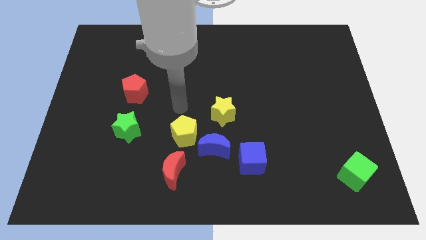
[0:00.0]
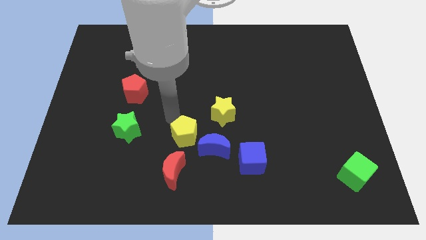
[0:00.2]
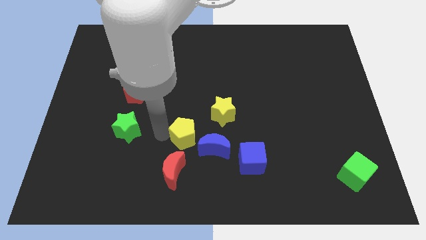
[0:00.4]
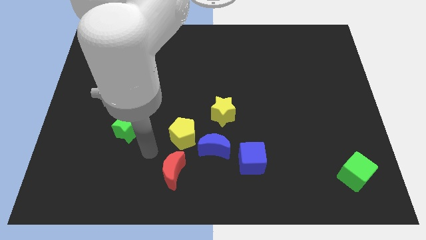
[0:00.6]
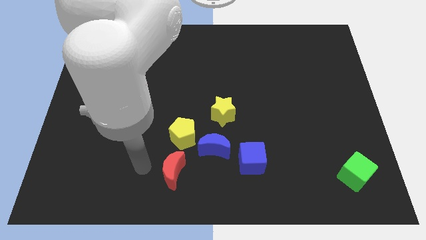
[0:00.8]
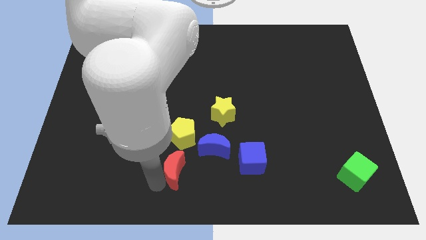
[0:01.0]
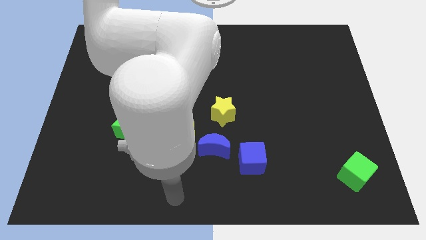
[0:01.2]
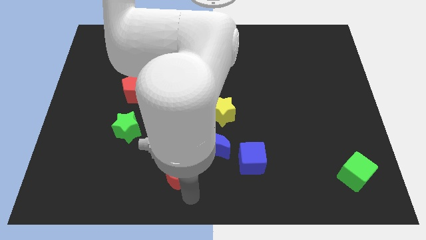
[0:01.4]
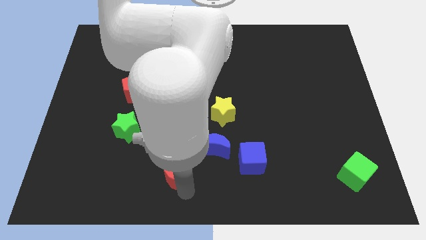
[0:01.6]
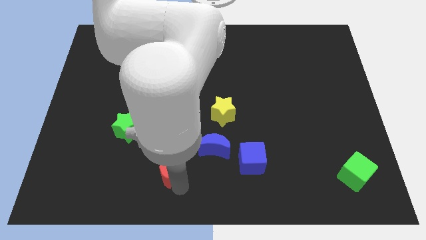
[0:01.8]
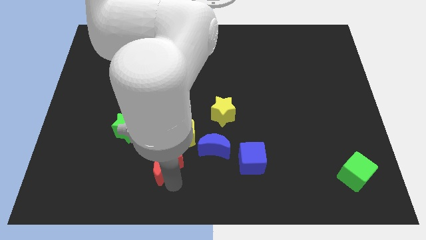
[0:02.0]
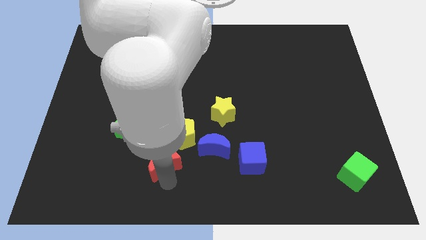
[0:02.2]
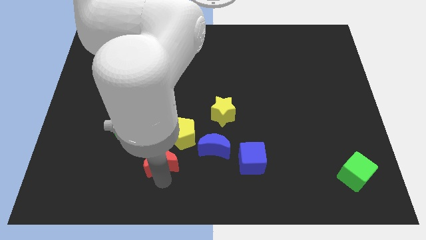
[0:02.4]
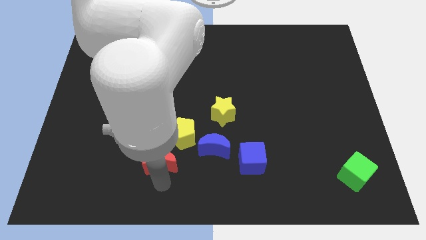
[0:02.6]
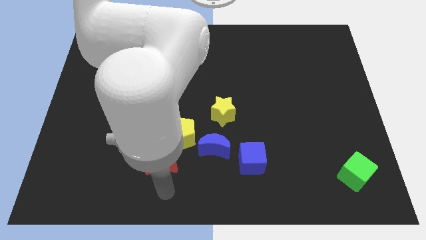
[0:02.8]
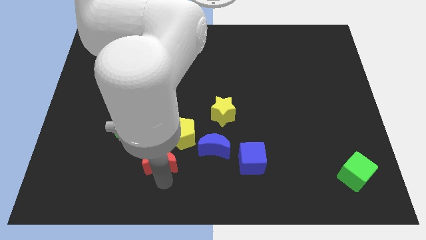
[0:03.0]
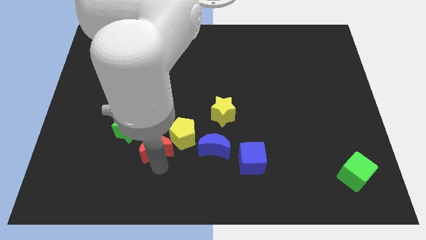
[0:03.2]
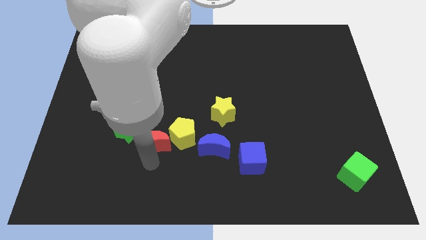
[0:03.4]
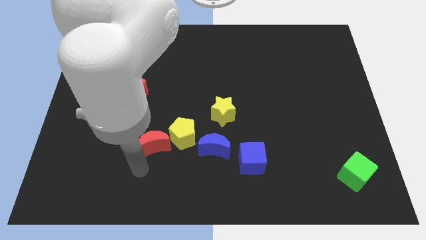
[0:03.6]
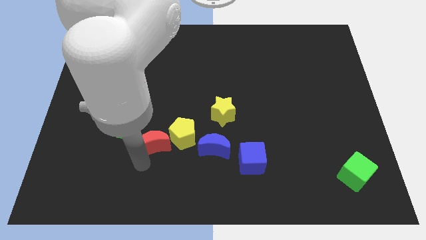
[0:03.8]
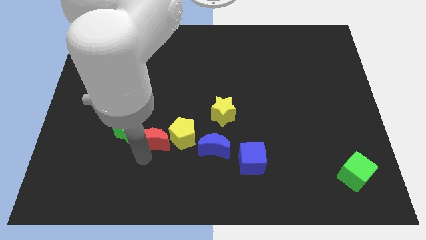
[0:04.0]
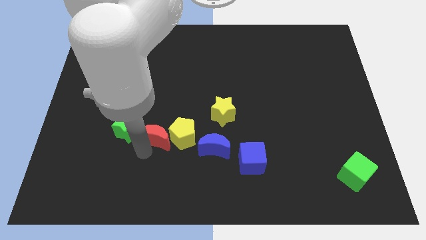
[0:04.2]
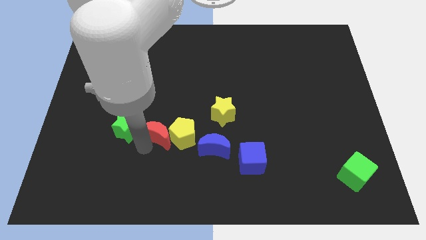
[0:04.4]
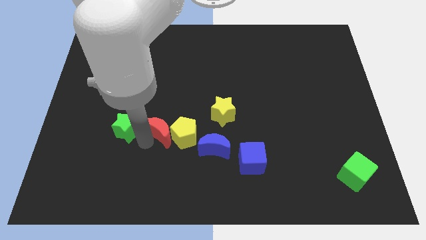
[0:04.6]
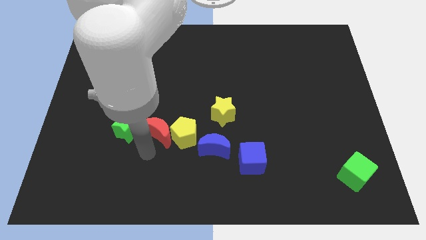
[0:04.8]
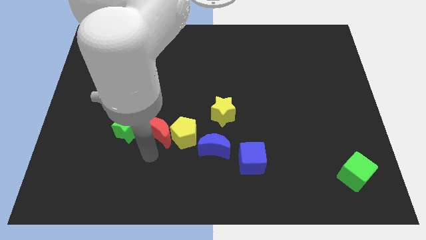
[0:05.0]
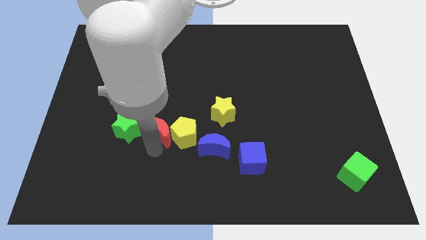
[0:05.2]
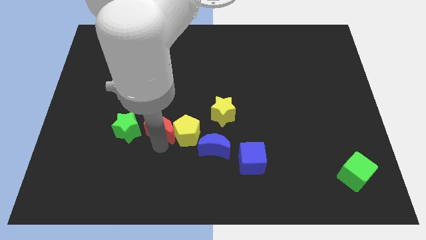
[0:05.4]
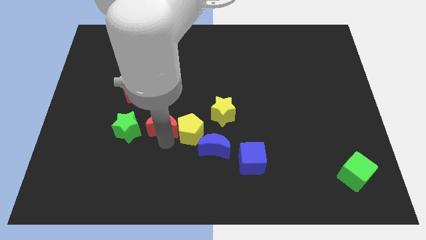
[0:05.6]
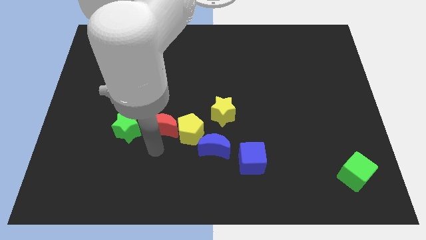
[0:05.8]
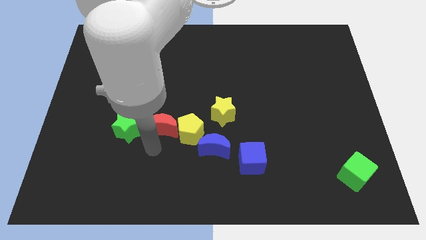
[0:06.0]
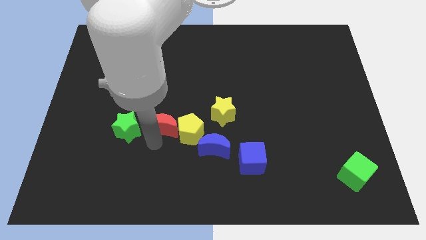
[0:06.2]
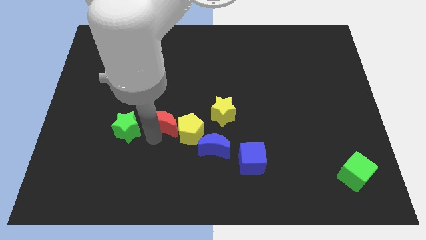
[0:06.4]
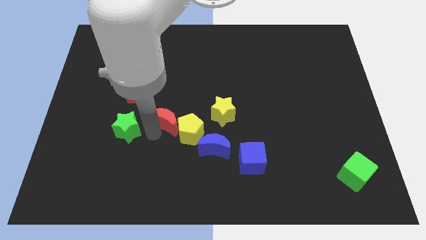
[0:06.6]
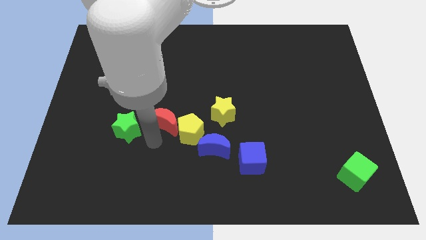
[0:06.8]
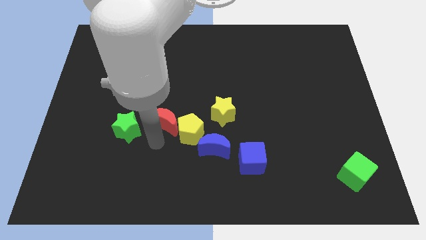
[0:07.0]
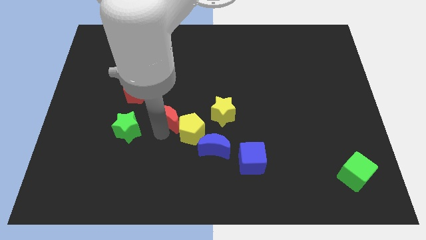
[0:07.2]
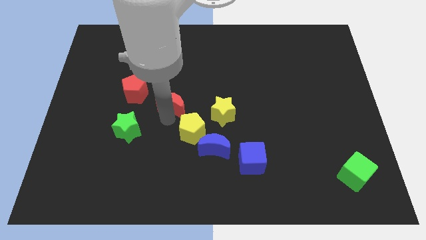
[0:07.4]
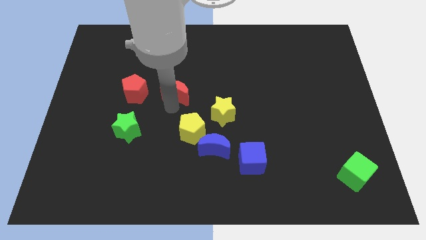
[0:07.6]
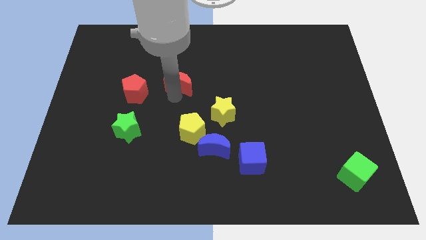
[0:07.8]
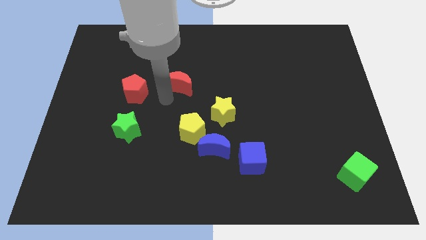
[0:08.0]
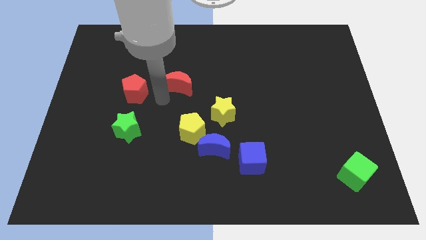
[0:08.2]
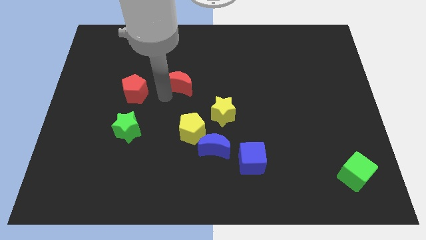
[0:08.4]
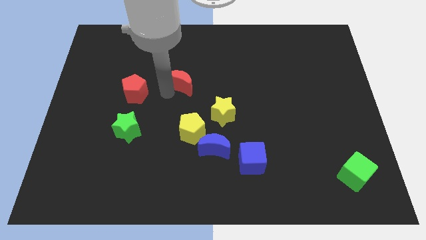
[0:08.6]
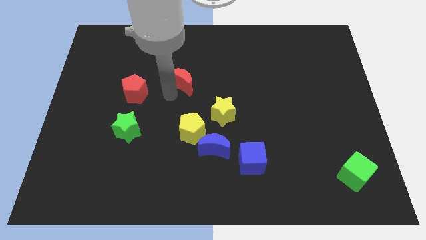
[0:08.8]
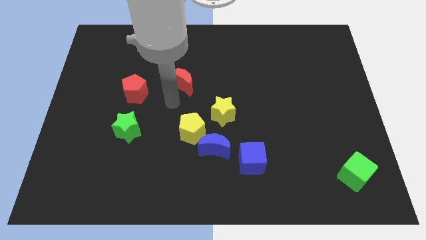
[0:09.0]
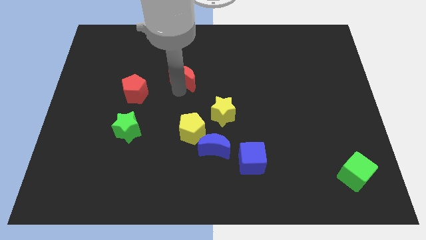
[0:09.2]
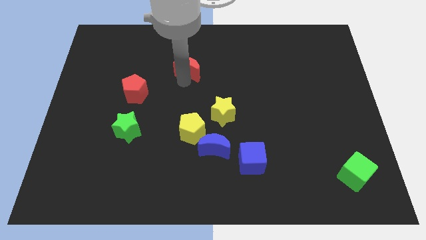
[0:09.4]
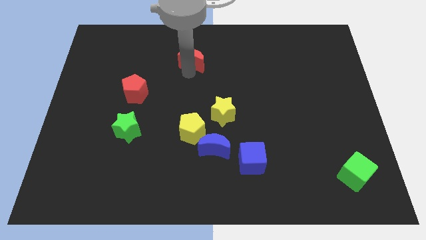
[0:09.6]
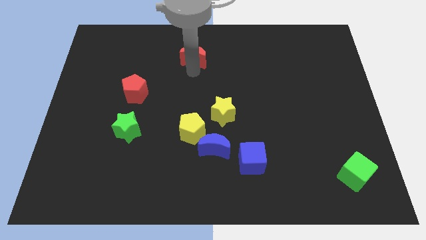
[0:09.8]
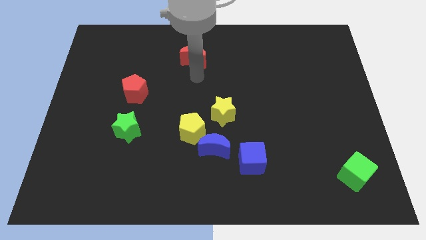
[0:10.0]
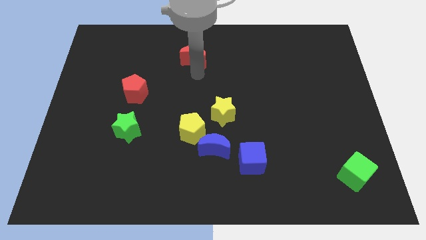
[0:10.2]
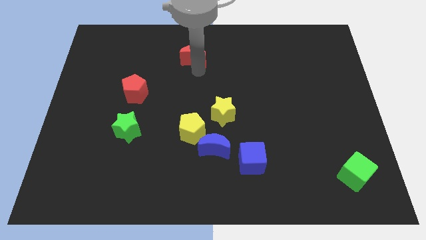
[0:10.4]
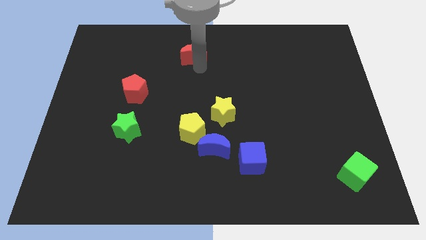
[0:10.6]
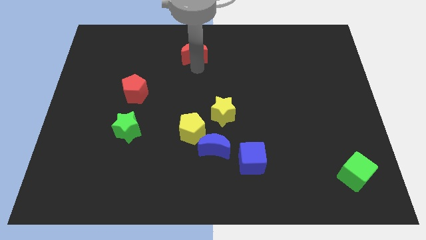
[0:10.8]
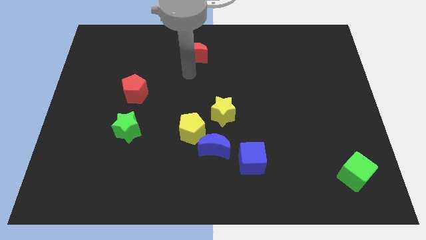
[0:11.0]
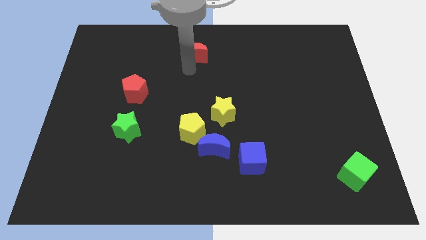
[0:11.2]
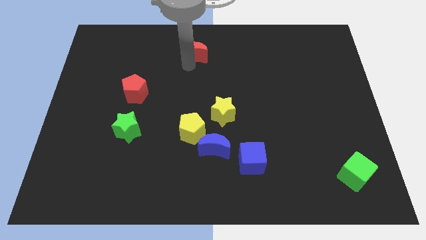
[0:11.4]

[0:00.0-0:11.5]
push the red moon to the top side
